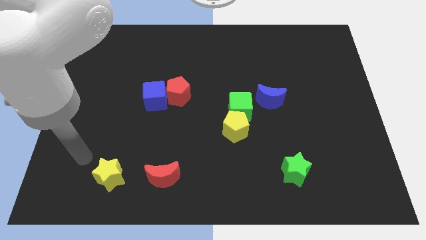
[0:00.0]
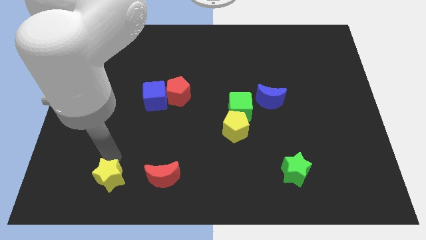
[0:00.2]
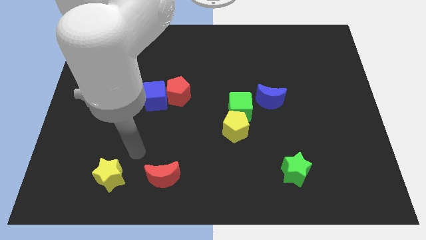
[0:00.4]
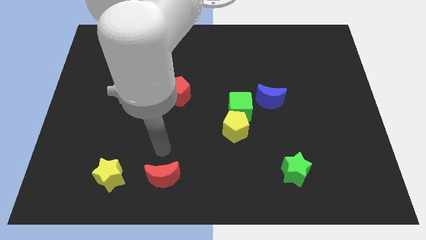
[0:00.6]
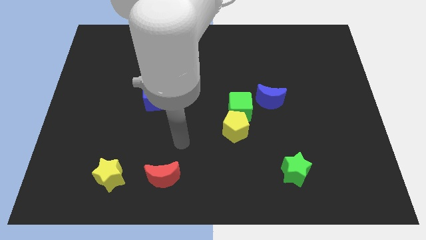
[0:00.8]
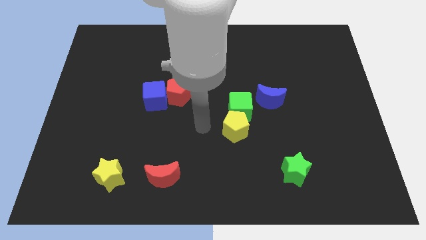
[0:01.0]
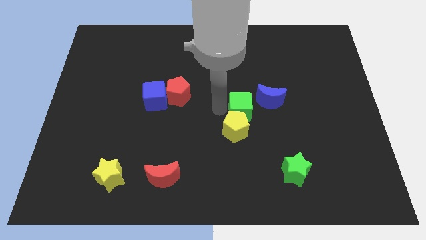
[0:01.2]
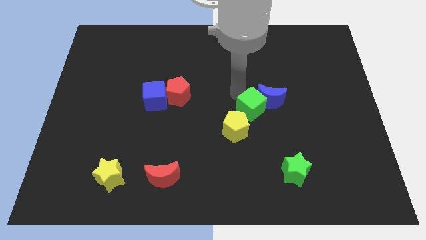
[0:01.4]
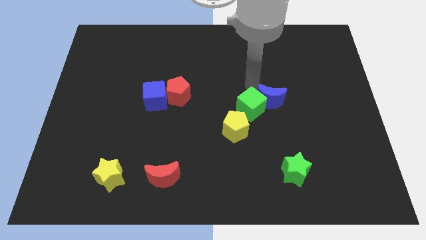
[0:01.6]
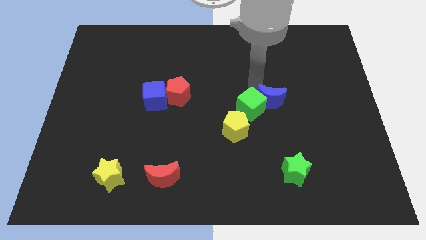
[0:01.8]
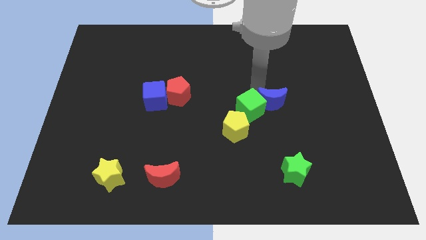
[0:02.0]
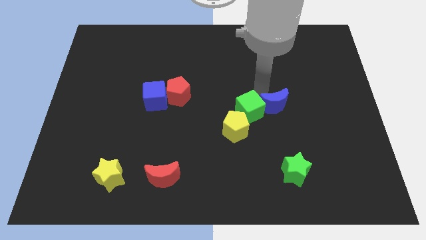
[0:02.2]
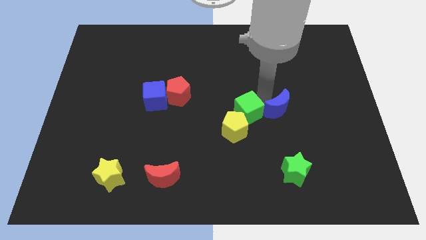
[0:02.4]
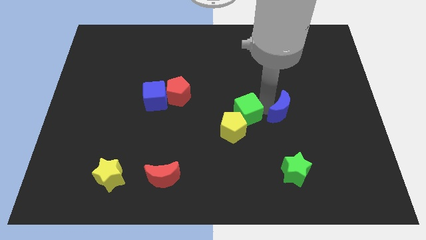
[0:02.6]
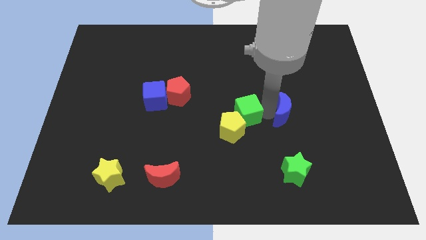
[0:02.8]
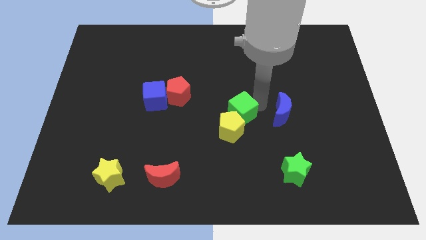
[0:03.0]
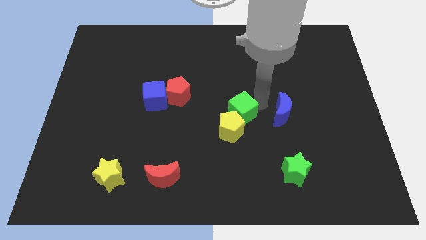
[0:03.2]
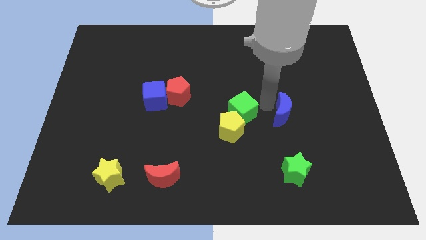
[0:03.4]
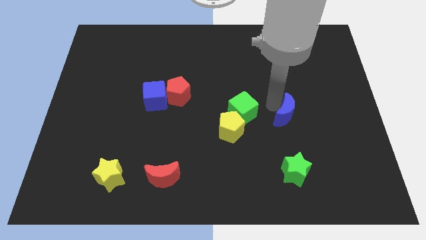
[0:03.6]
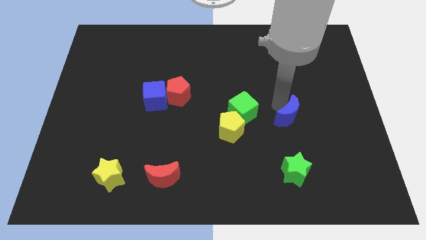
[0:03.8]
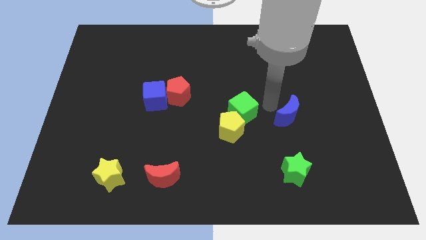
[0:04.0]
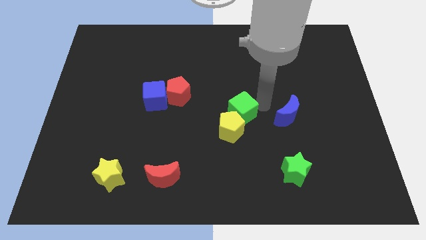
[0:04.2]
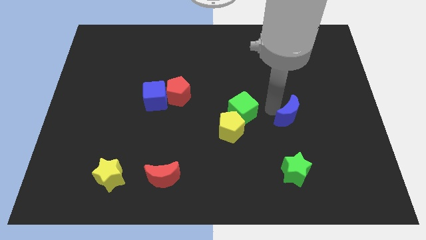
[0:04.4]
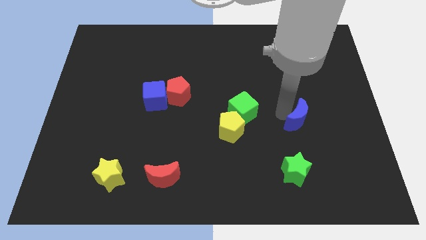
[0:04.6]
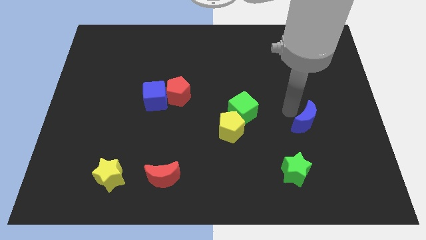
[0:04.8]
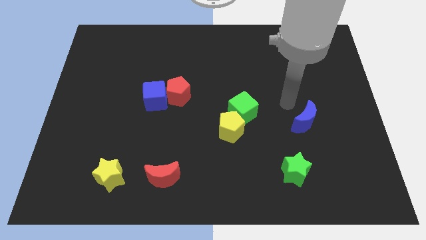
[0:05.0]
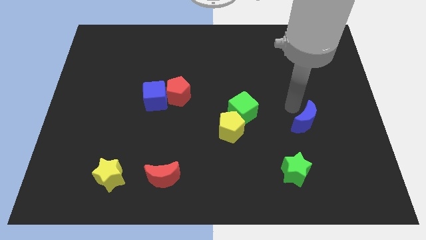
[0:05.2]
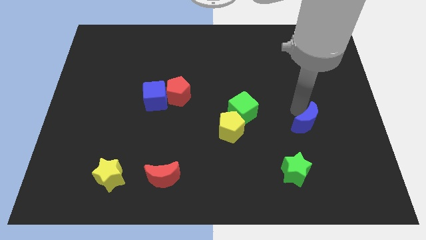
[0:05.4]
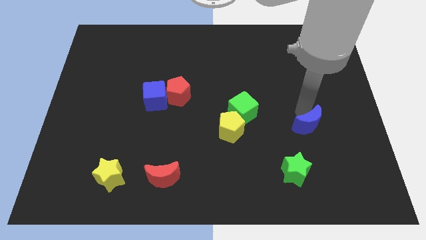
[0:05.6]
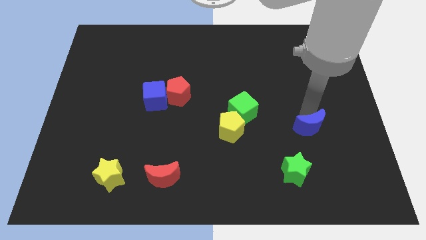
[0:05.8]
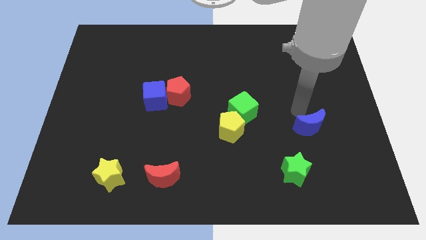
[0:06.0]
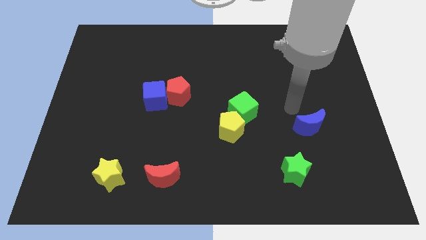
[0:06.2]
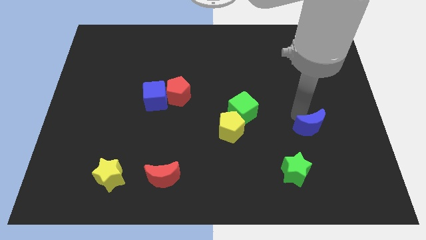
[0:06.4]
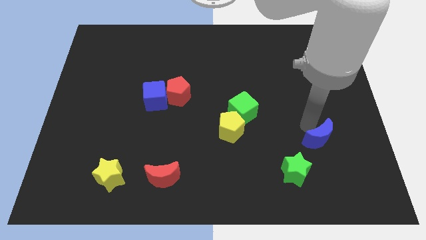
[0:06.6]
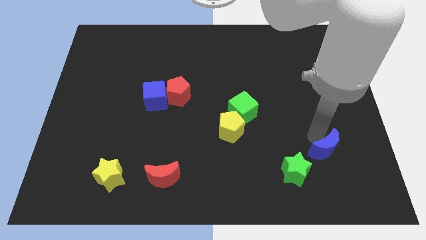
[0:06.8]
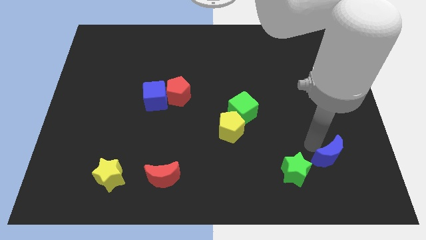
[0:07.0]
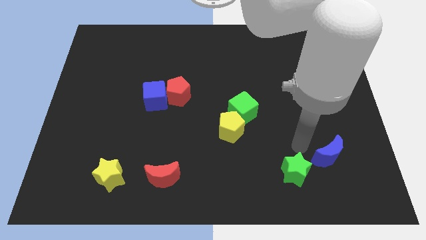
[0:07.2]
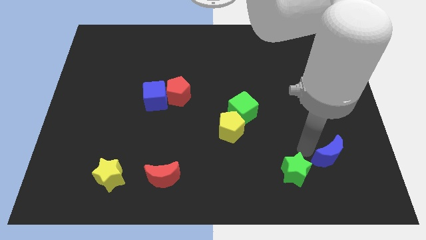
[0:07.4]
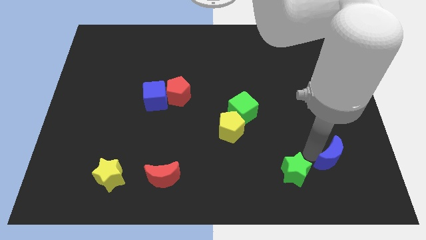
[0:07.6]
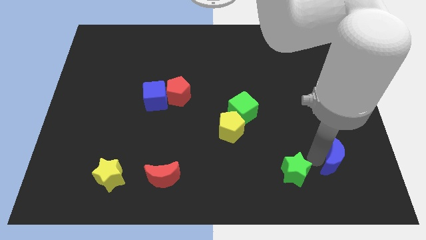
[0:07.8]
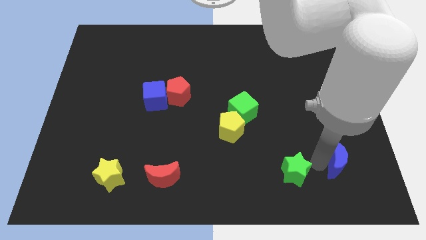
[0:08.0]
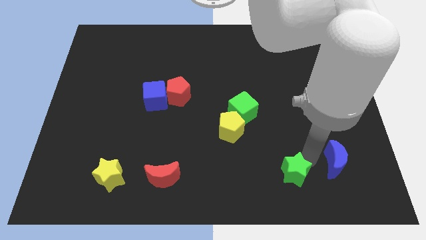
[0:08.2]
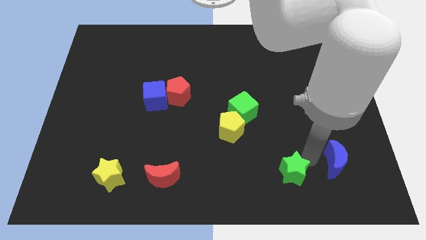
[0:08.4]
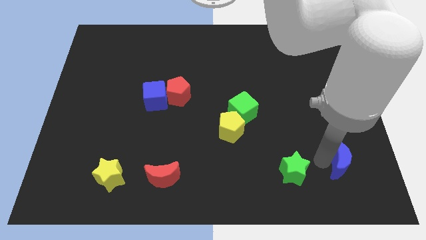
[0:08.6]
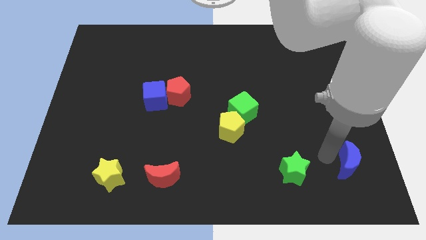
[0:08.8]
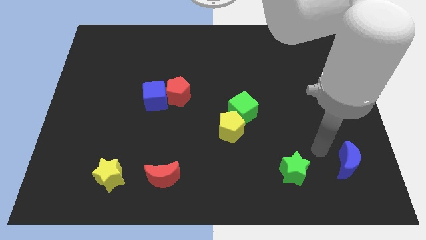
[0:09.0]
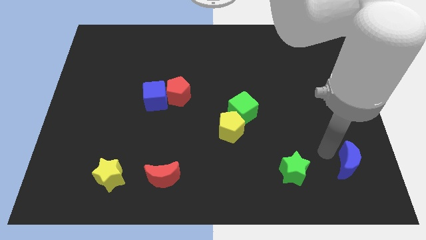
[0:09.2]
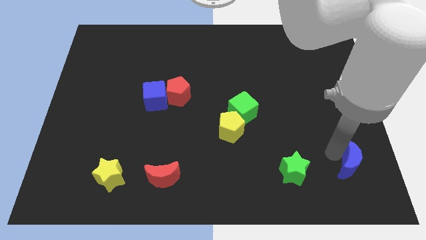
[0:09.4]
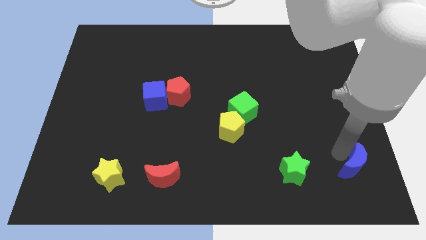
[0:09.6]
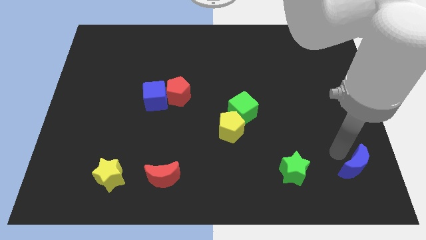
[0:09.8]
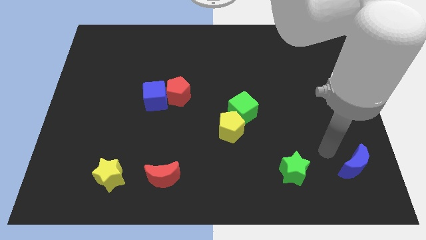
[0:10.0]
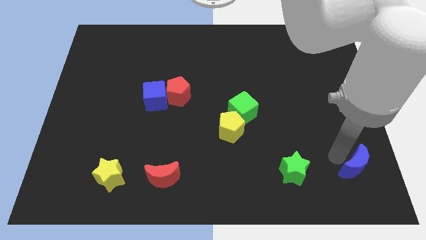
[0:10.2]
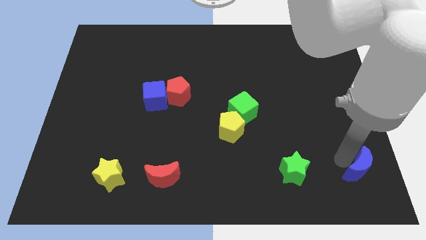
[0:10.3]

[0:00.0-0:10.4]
put the blue moon to the bottom right of the board

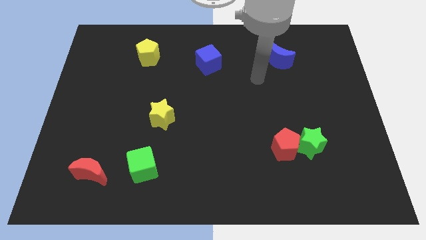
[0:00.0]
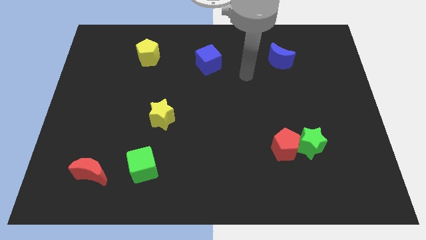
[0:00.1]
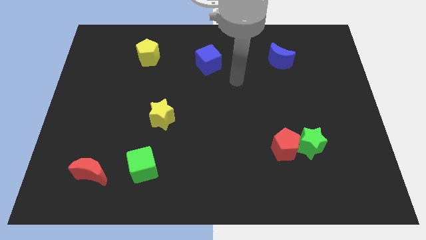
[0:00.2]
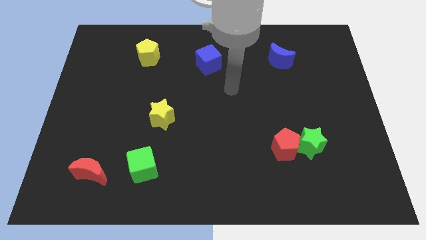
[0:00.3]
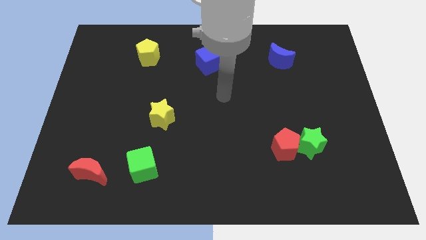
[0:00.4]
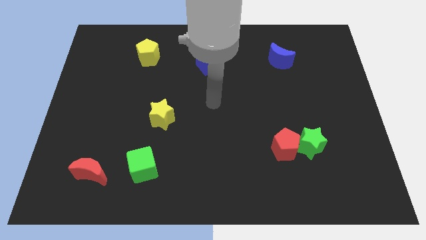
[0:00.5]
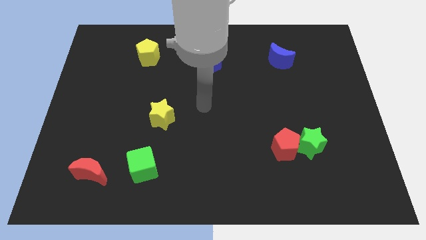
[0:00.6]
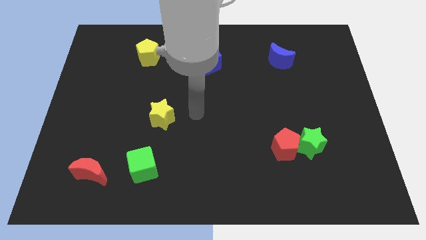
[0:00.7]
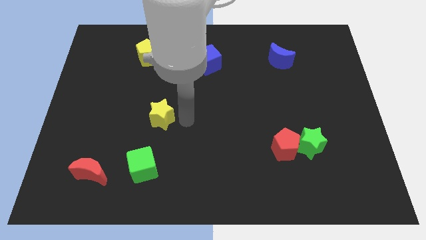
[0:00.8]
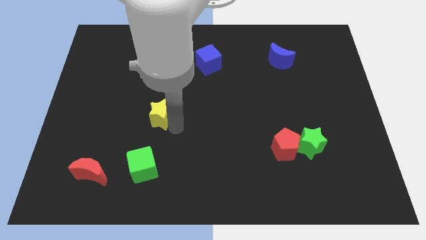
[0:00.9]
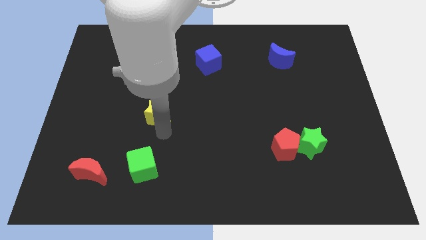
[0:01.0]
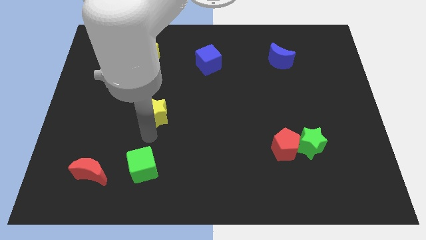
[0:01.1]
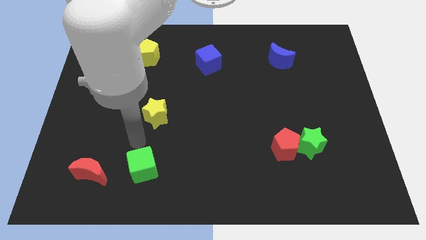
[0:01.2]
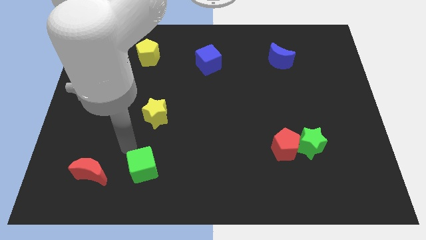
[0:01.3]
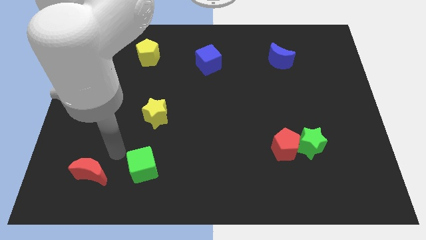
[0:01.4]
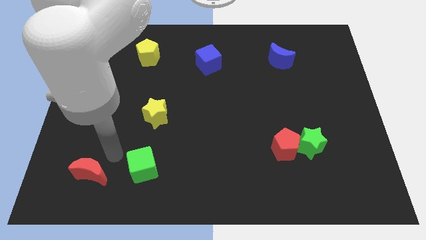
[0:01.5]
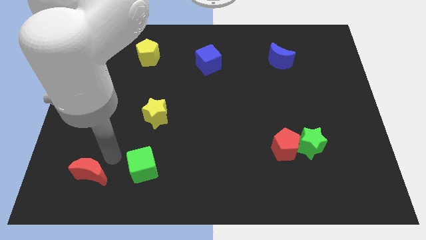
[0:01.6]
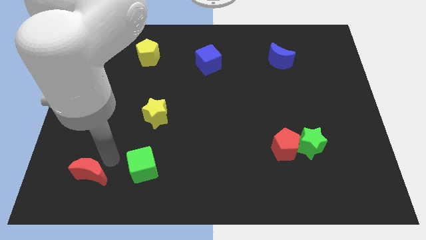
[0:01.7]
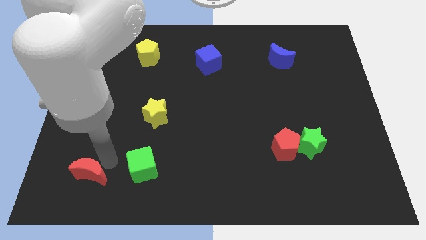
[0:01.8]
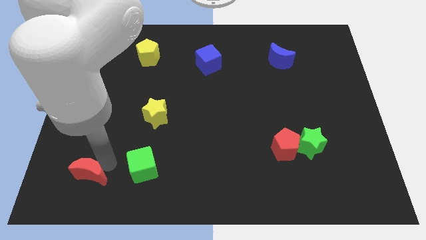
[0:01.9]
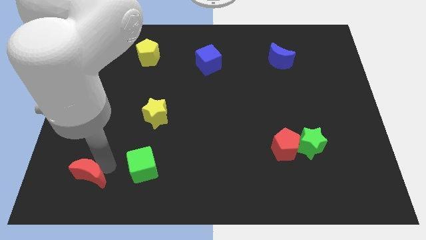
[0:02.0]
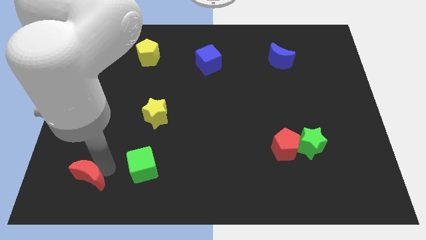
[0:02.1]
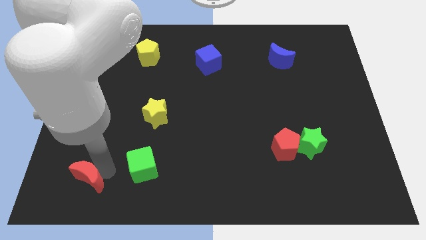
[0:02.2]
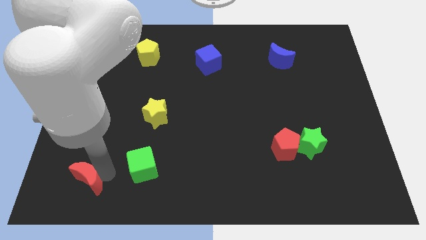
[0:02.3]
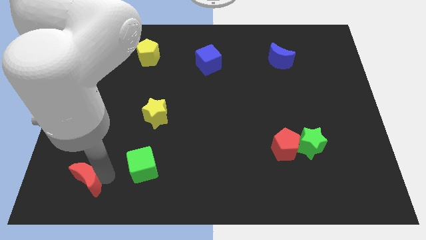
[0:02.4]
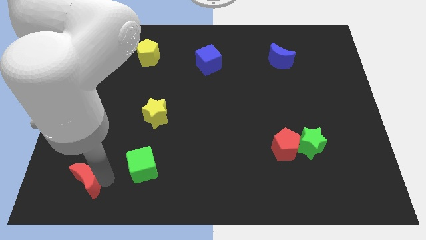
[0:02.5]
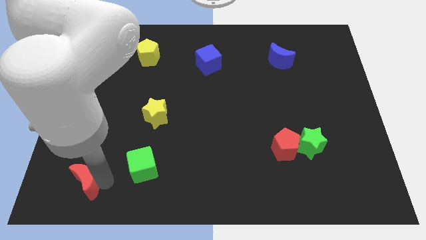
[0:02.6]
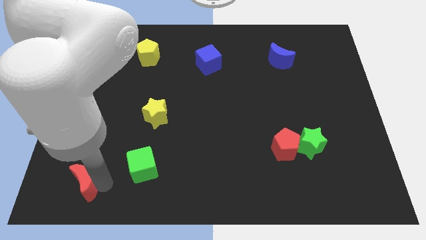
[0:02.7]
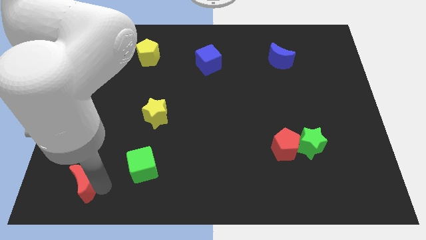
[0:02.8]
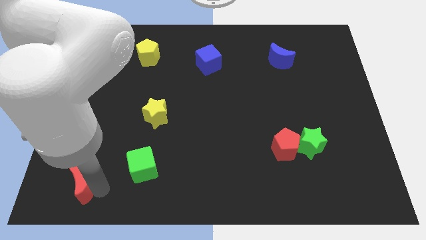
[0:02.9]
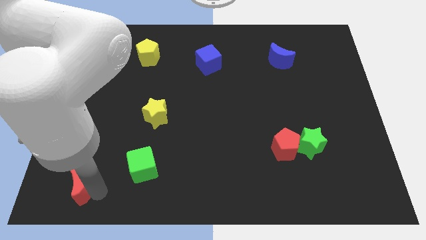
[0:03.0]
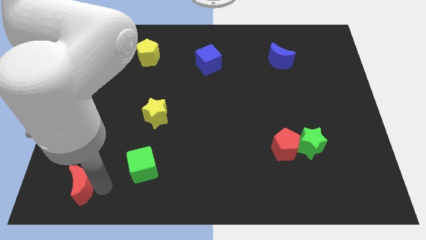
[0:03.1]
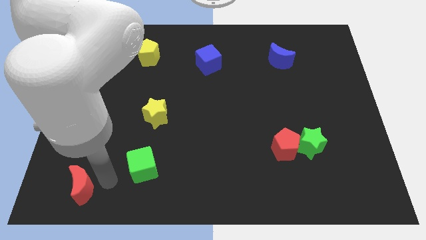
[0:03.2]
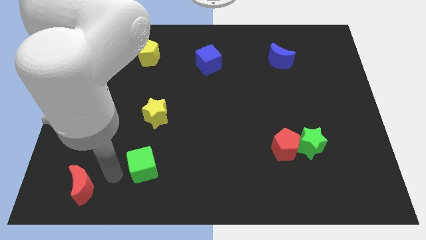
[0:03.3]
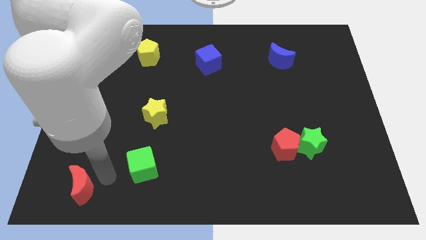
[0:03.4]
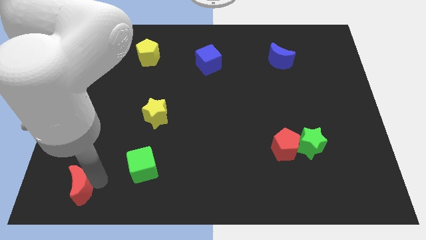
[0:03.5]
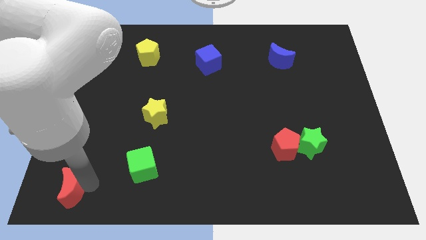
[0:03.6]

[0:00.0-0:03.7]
put the red moon to the bottom left corner
